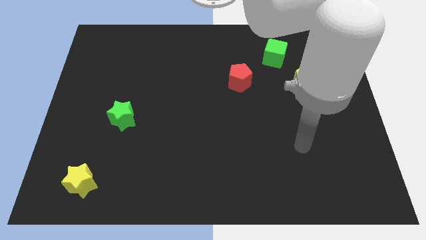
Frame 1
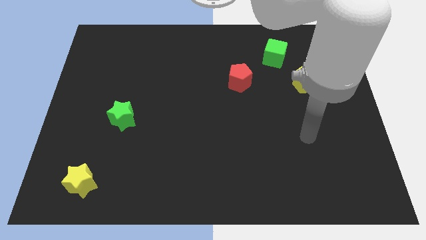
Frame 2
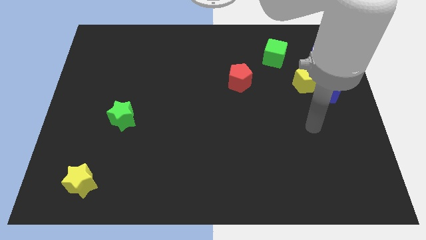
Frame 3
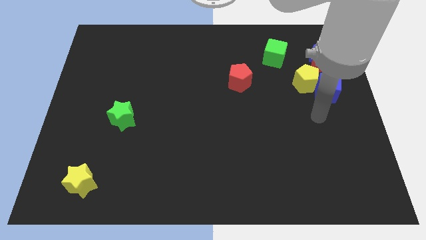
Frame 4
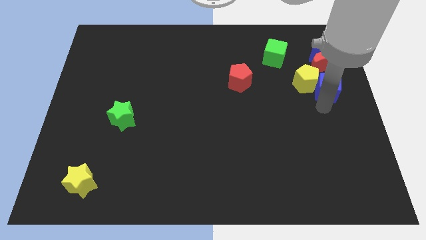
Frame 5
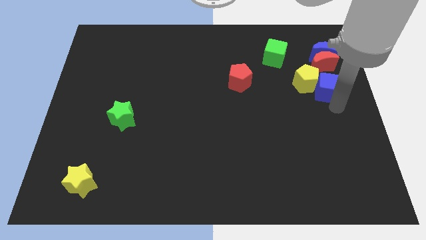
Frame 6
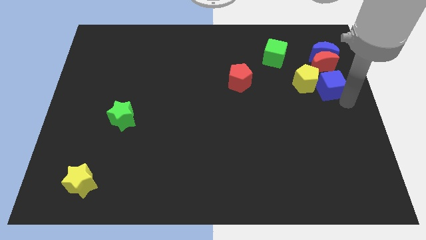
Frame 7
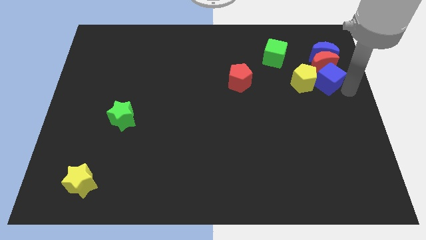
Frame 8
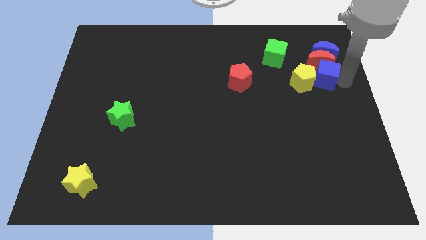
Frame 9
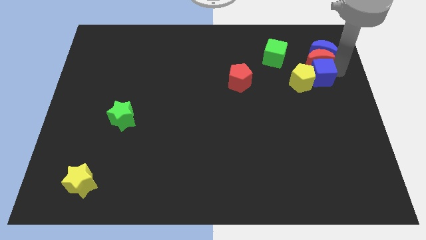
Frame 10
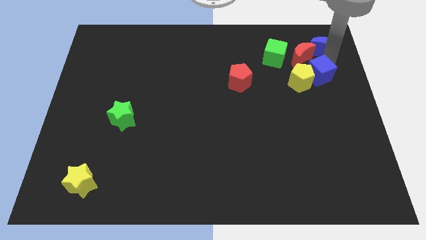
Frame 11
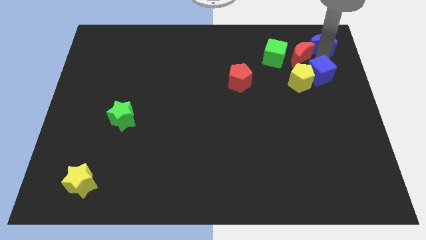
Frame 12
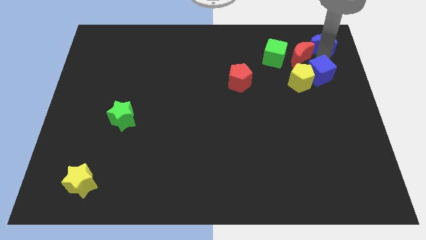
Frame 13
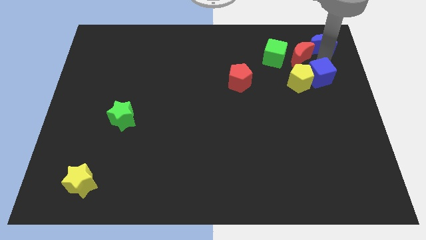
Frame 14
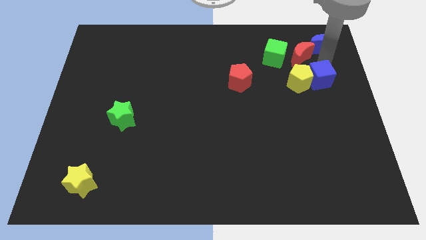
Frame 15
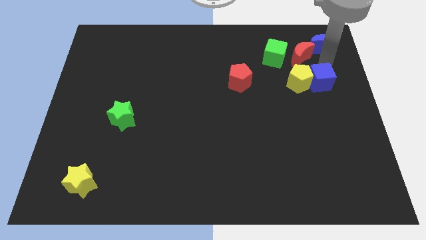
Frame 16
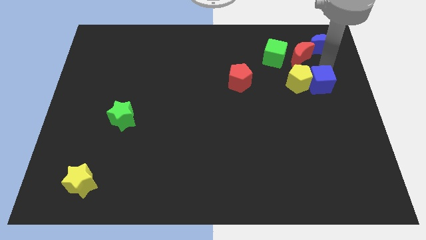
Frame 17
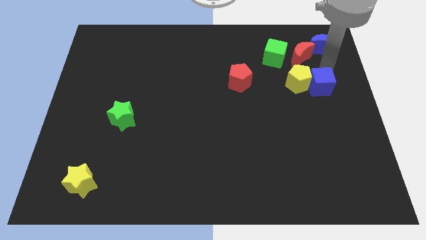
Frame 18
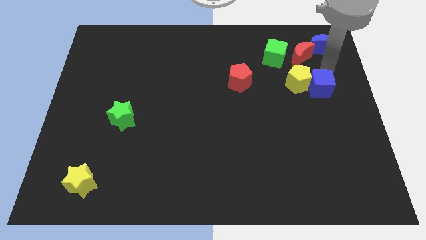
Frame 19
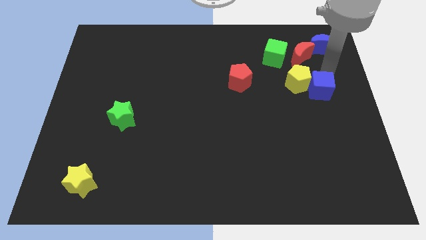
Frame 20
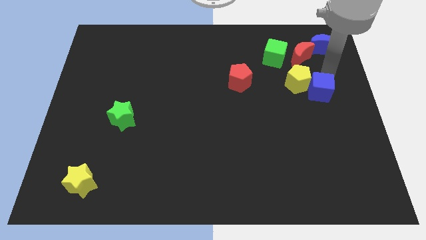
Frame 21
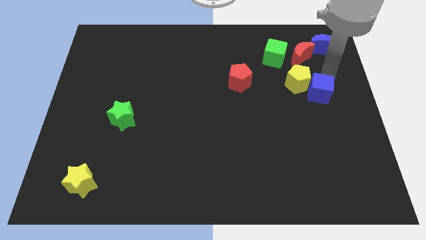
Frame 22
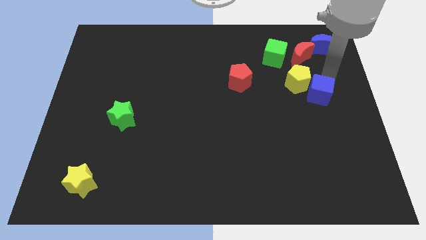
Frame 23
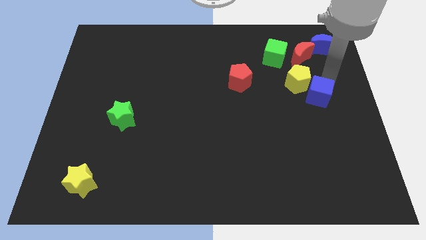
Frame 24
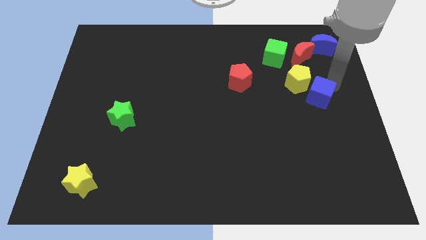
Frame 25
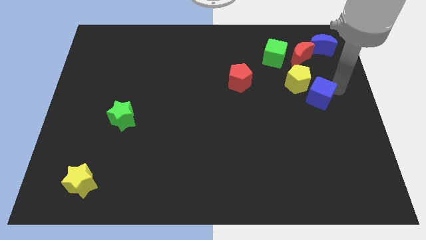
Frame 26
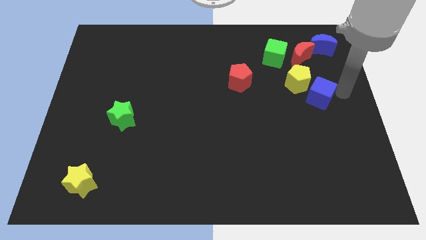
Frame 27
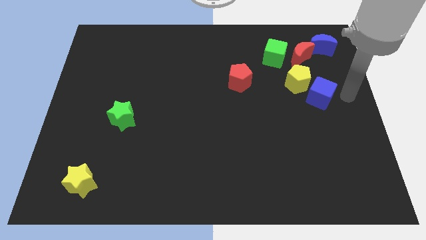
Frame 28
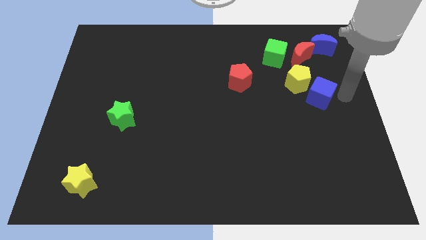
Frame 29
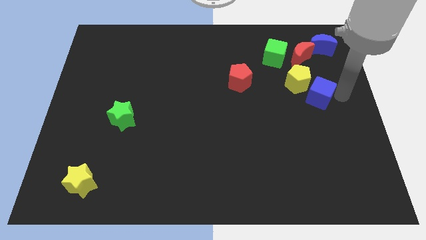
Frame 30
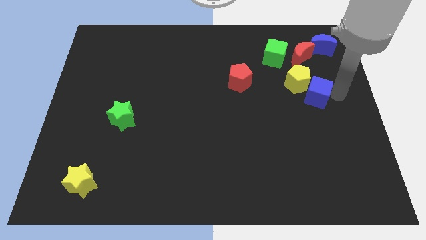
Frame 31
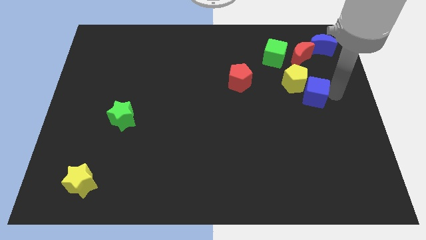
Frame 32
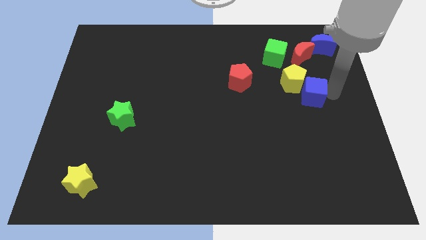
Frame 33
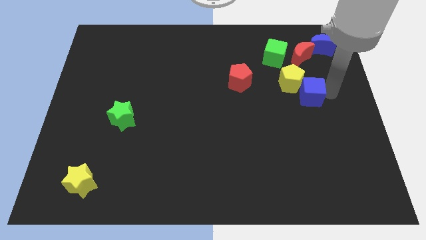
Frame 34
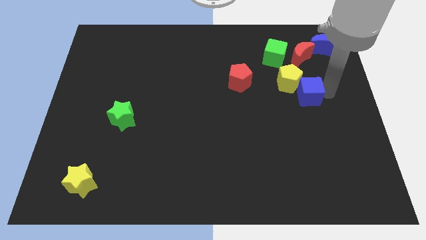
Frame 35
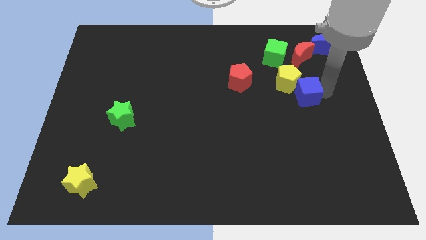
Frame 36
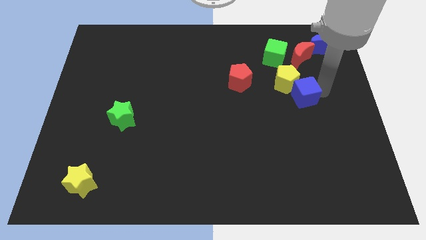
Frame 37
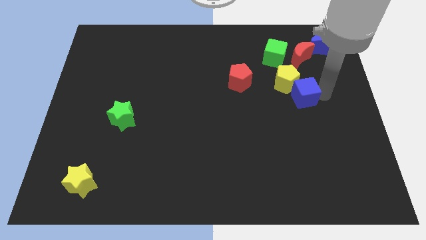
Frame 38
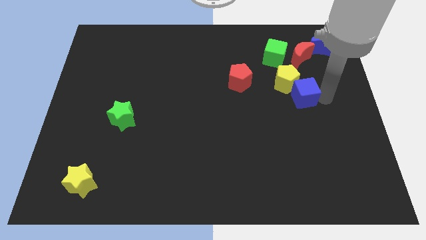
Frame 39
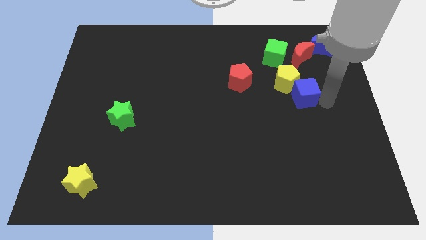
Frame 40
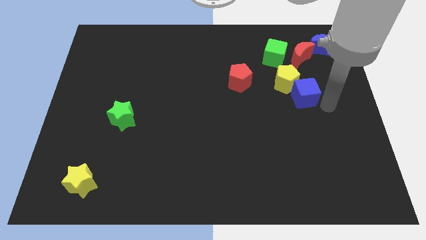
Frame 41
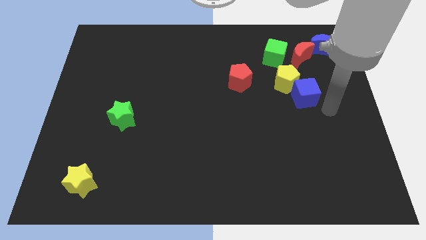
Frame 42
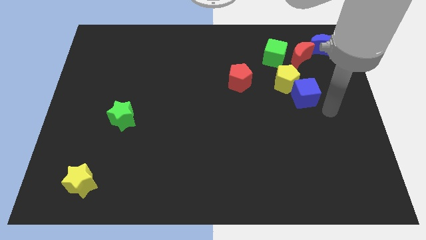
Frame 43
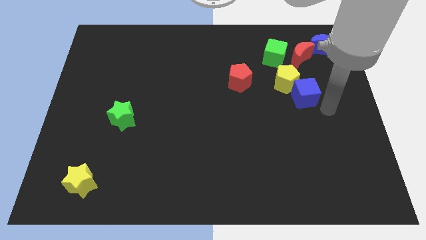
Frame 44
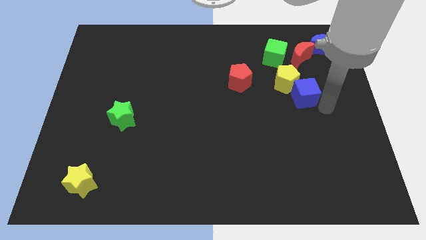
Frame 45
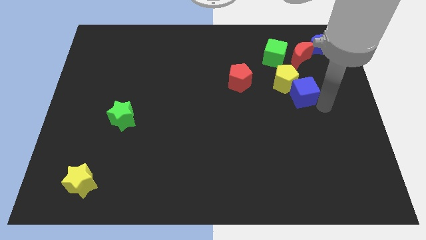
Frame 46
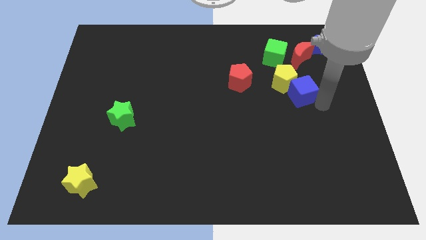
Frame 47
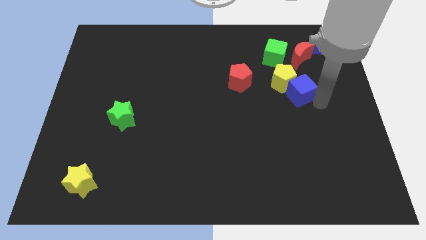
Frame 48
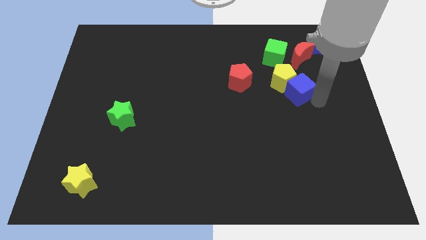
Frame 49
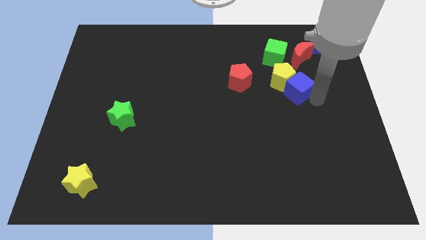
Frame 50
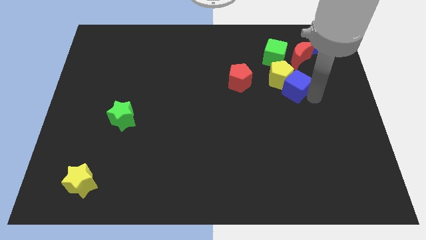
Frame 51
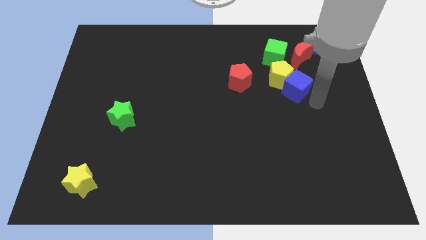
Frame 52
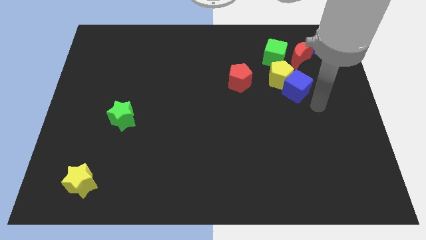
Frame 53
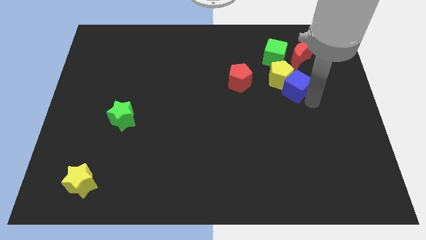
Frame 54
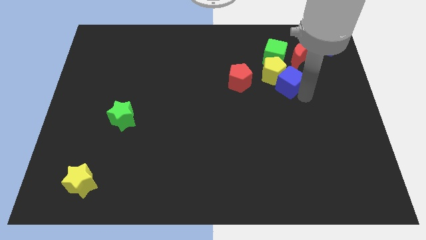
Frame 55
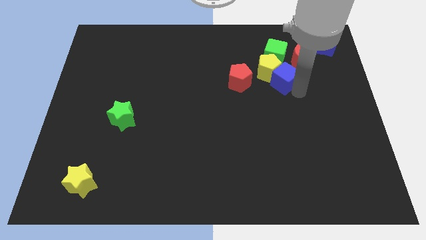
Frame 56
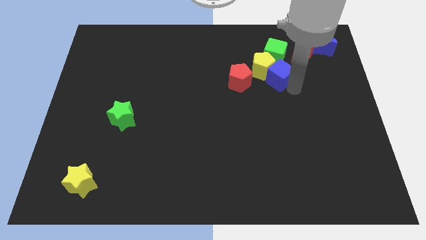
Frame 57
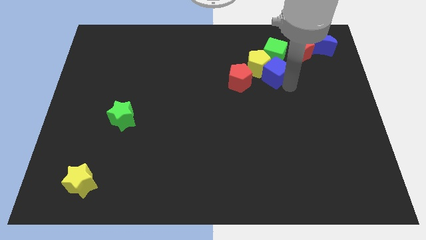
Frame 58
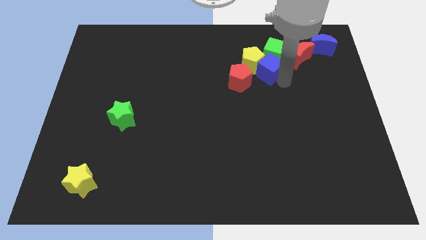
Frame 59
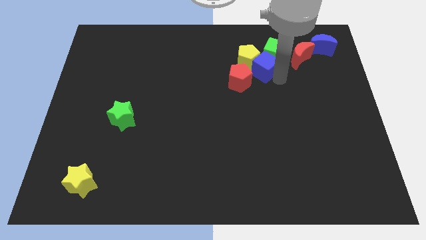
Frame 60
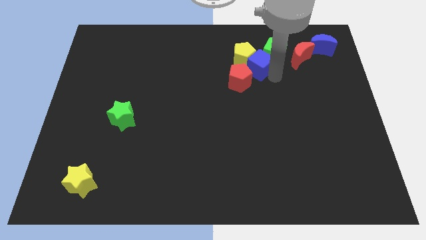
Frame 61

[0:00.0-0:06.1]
slide the blue cube left of the green cube

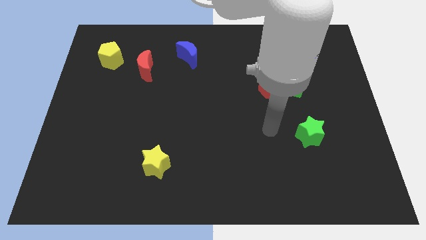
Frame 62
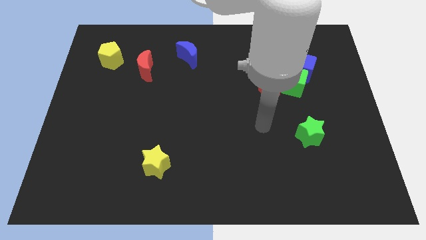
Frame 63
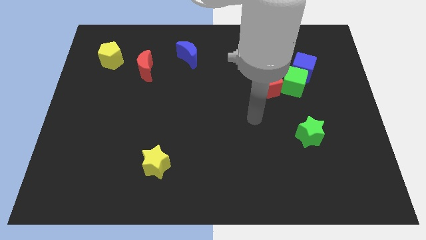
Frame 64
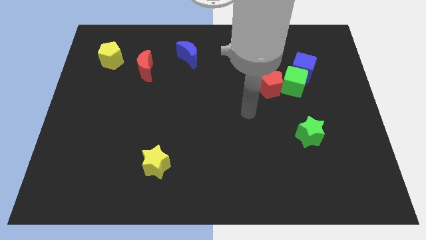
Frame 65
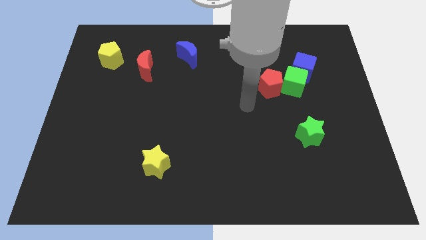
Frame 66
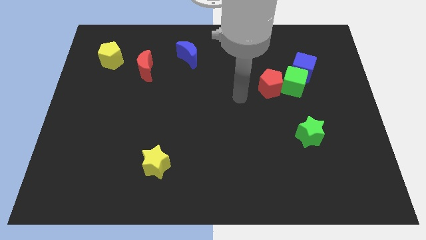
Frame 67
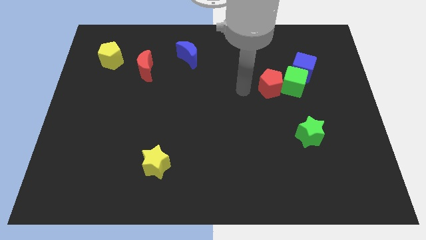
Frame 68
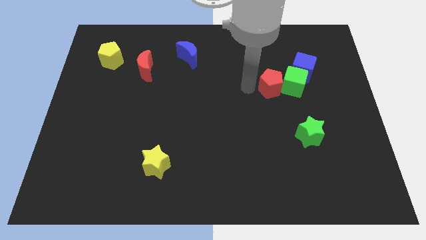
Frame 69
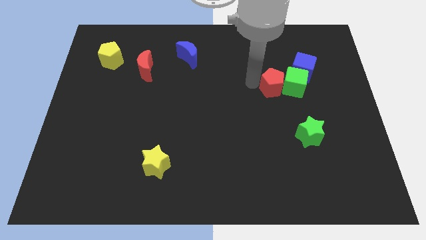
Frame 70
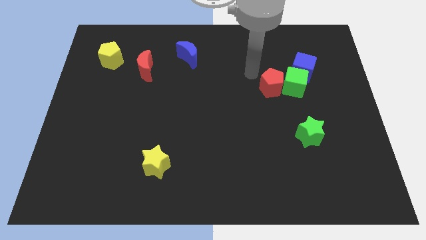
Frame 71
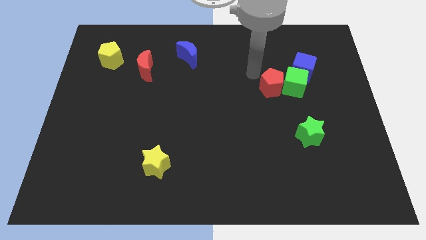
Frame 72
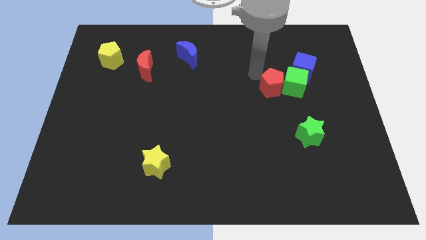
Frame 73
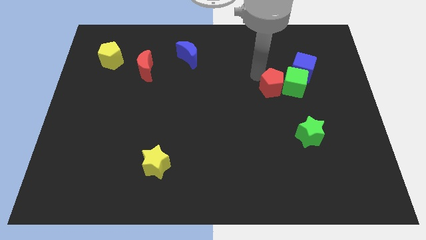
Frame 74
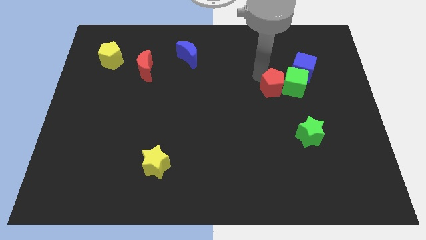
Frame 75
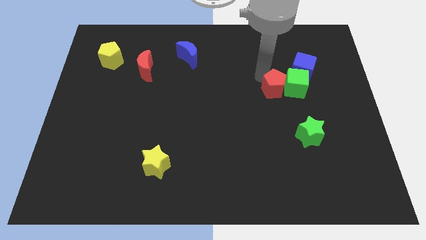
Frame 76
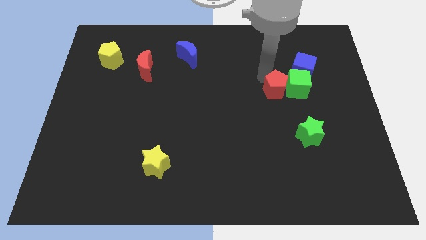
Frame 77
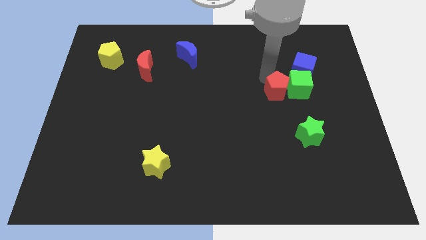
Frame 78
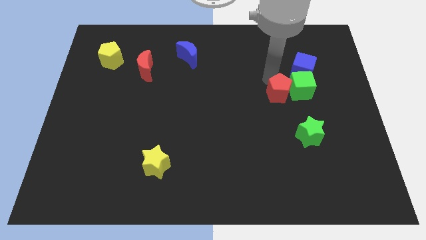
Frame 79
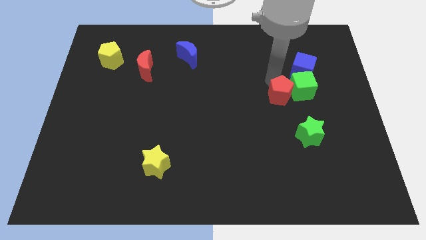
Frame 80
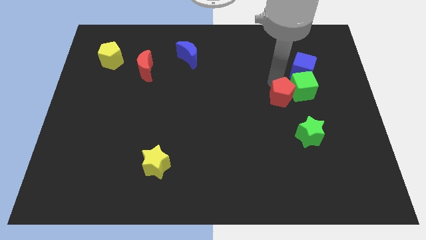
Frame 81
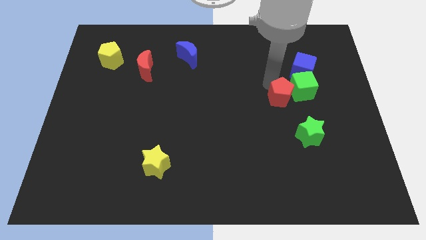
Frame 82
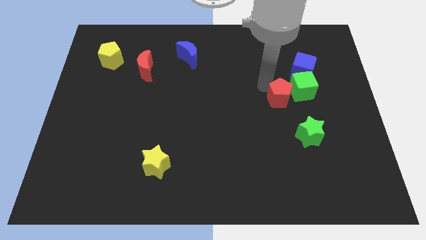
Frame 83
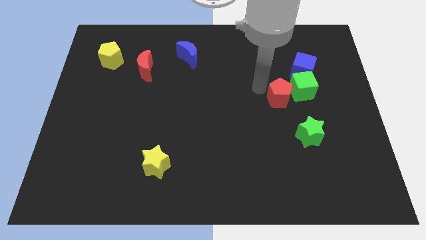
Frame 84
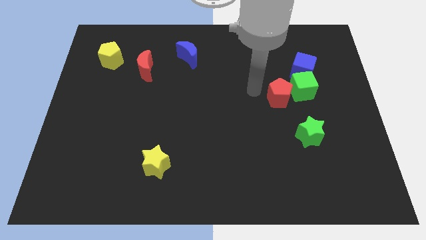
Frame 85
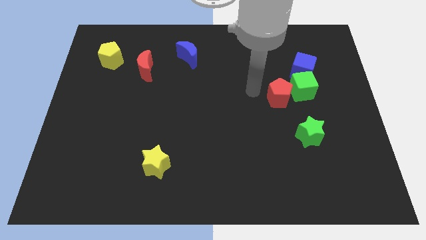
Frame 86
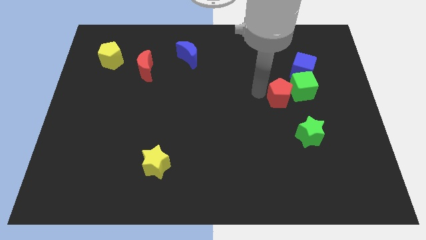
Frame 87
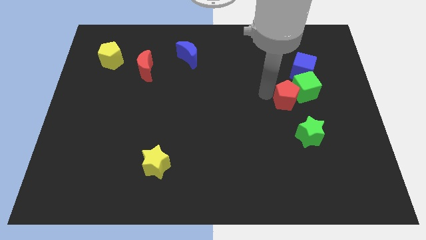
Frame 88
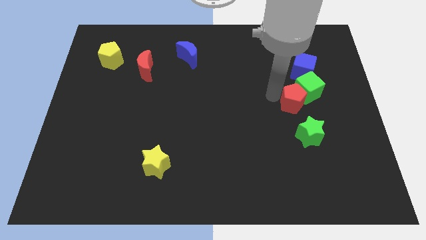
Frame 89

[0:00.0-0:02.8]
slide the red pentagon to the bottom of the blue cube
